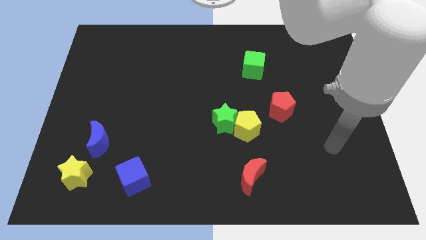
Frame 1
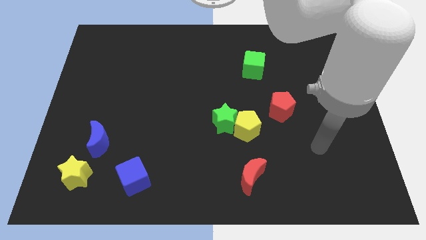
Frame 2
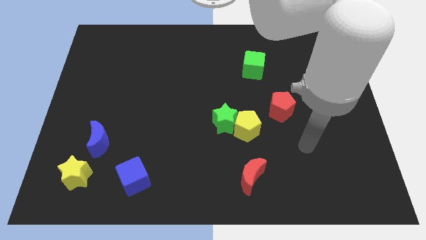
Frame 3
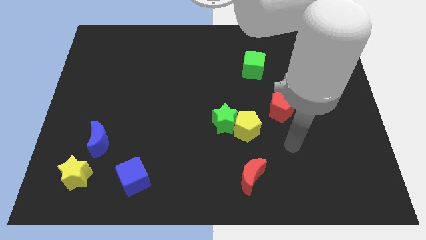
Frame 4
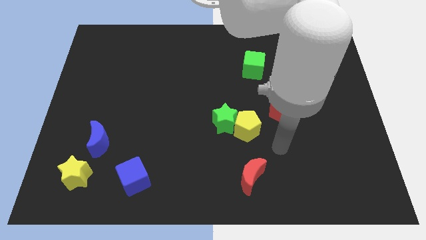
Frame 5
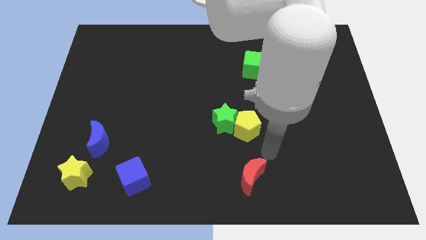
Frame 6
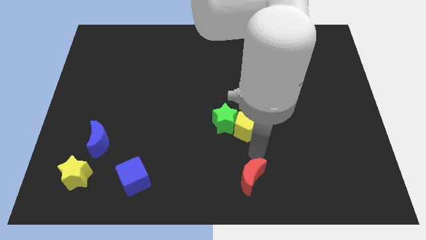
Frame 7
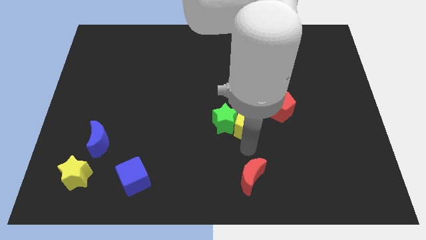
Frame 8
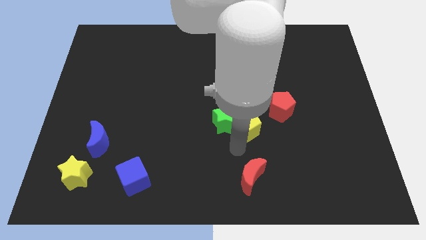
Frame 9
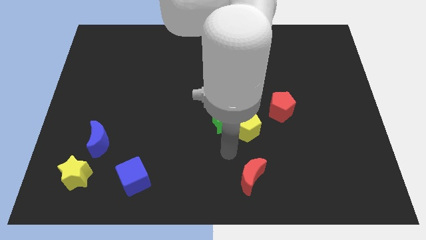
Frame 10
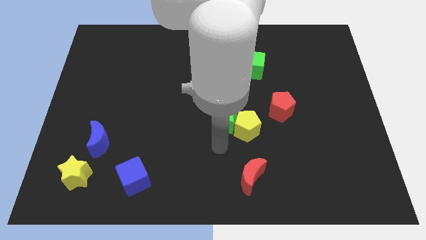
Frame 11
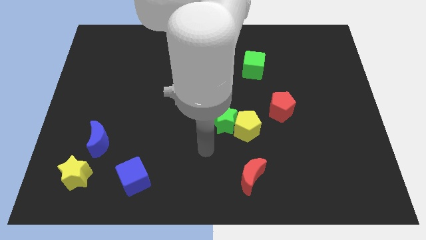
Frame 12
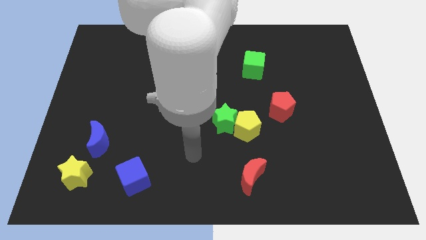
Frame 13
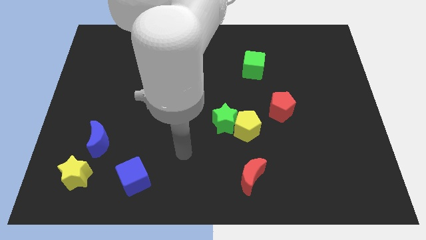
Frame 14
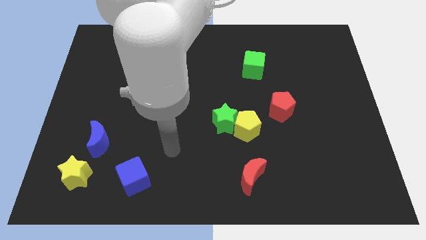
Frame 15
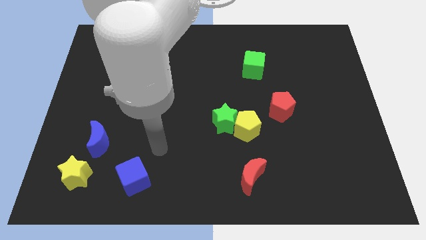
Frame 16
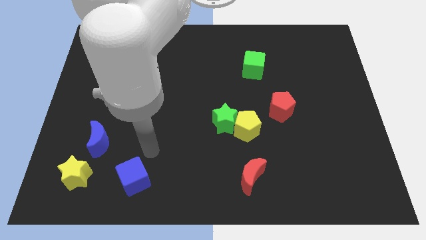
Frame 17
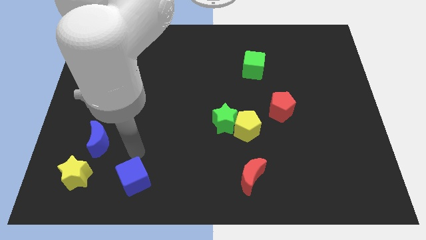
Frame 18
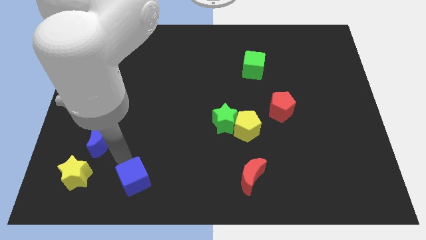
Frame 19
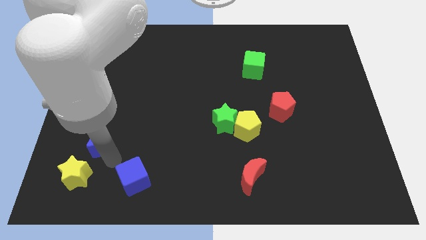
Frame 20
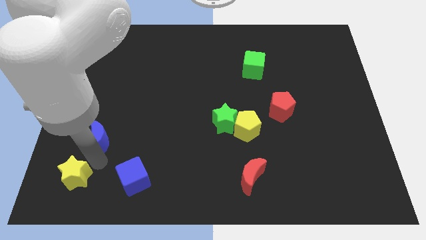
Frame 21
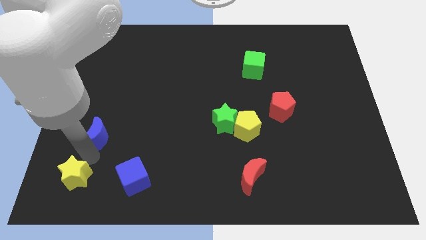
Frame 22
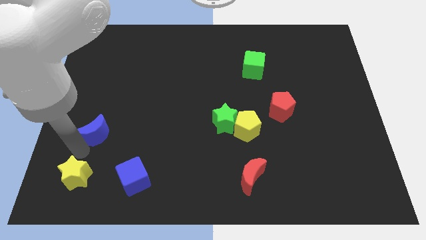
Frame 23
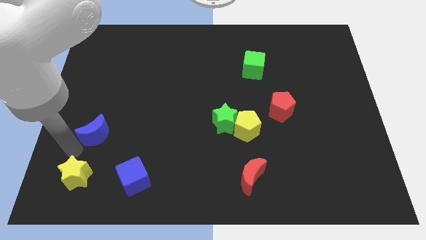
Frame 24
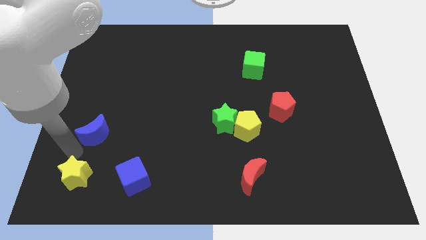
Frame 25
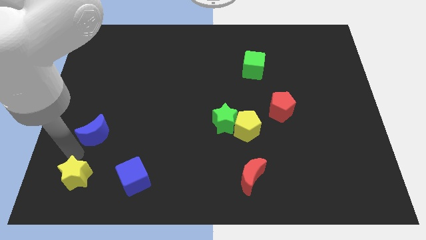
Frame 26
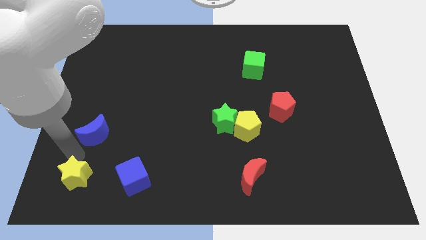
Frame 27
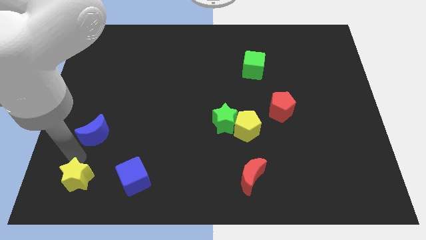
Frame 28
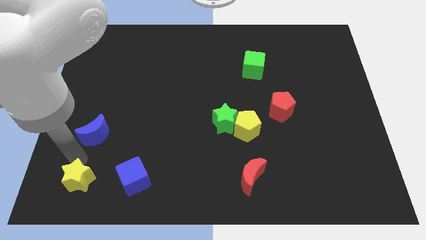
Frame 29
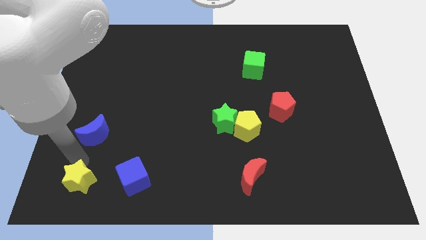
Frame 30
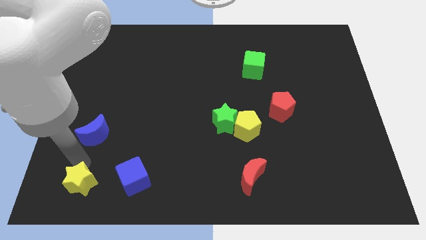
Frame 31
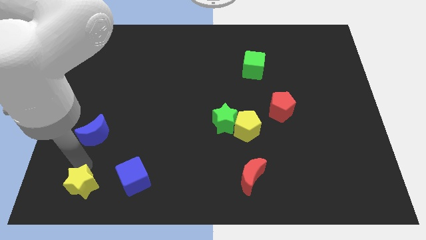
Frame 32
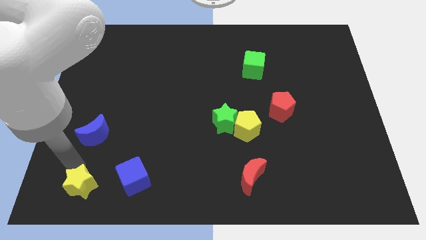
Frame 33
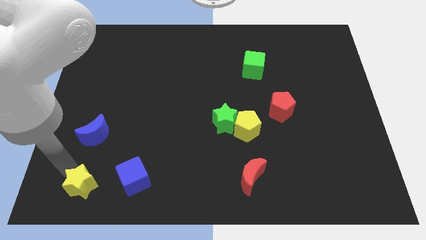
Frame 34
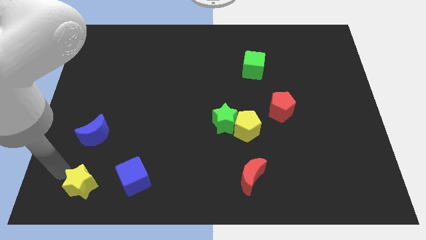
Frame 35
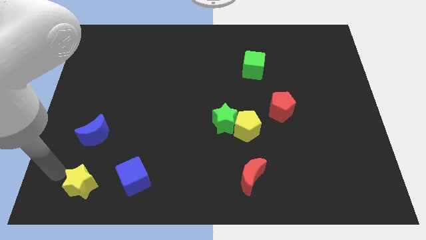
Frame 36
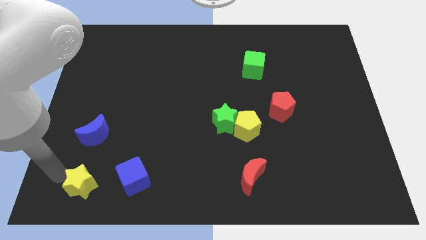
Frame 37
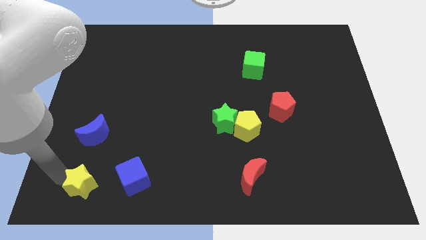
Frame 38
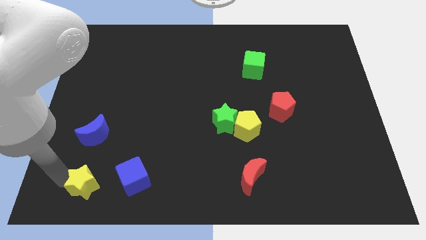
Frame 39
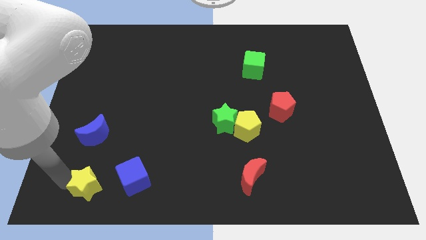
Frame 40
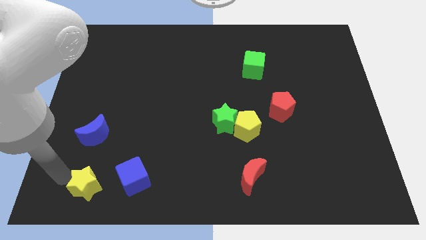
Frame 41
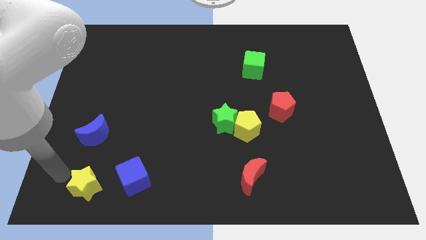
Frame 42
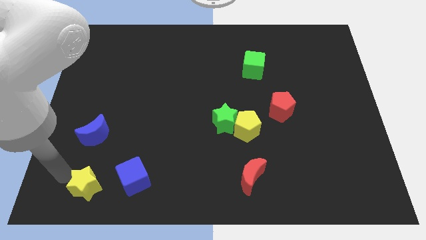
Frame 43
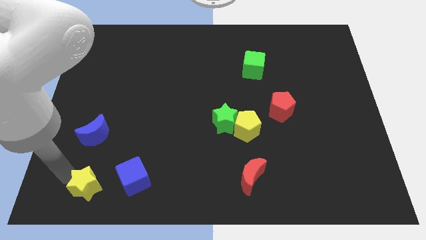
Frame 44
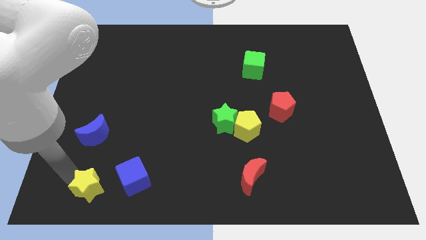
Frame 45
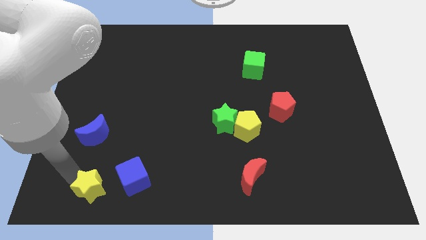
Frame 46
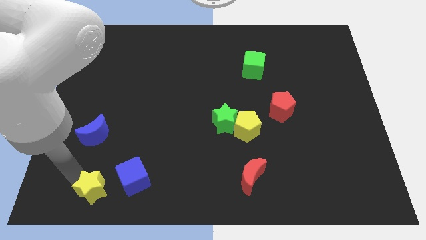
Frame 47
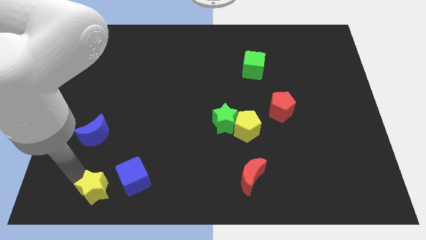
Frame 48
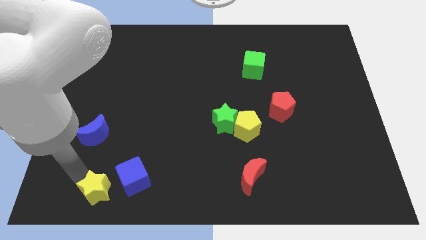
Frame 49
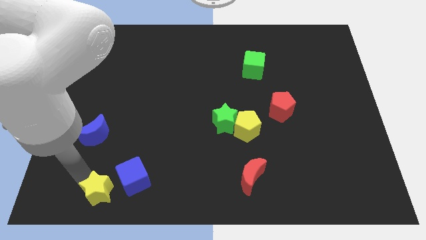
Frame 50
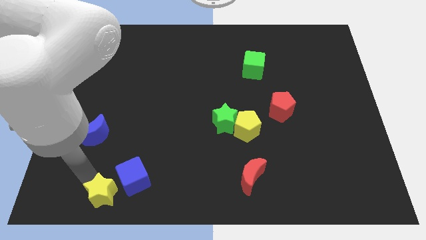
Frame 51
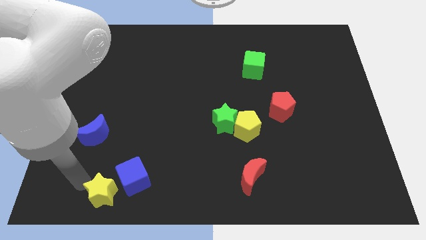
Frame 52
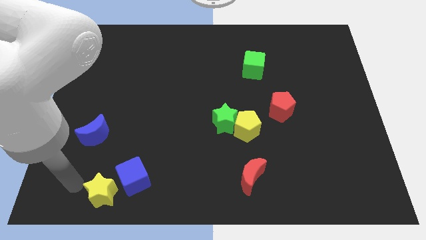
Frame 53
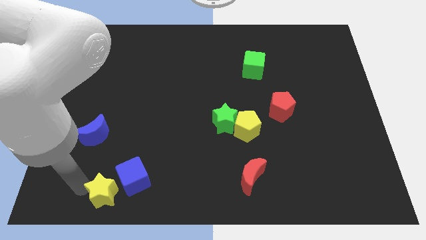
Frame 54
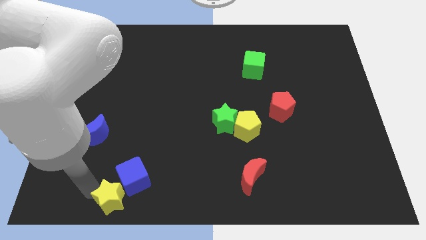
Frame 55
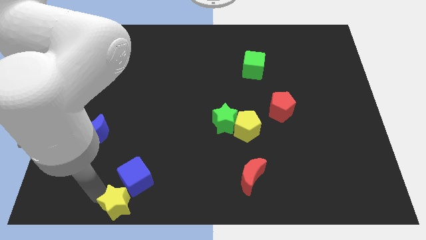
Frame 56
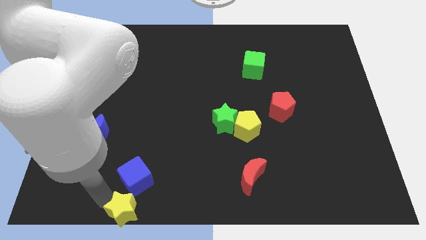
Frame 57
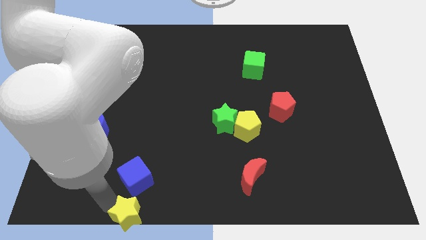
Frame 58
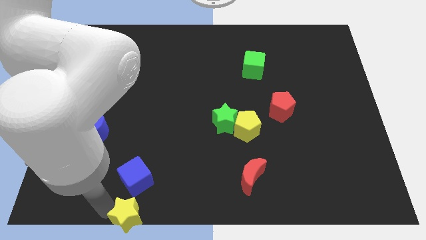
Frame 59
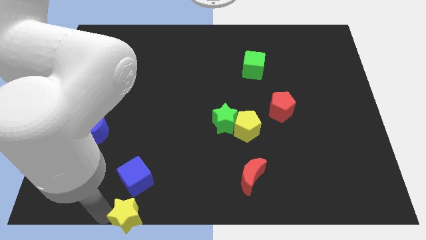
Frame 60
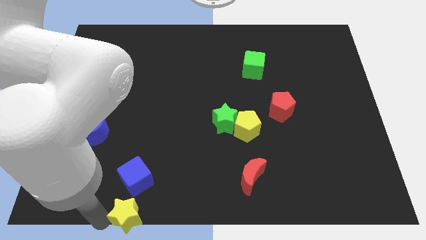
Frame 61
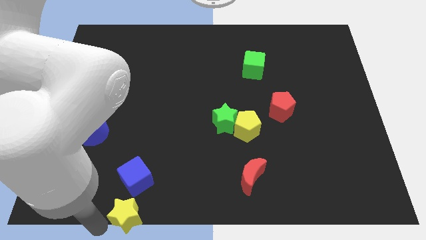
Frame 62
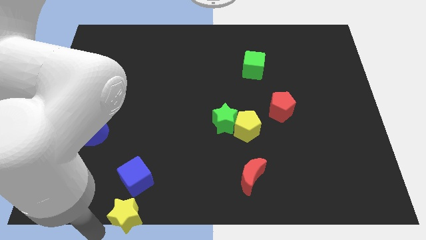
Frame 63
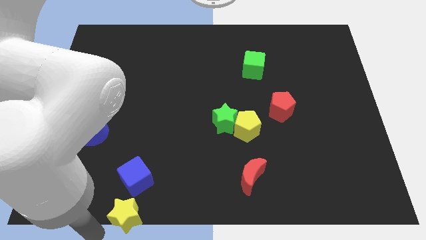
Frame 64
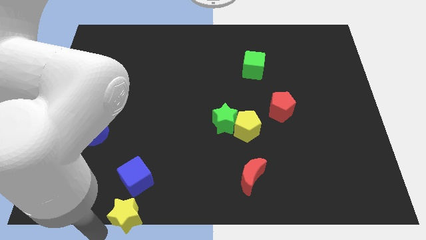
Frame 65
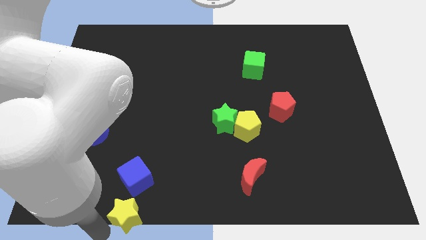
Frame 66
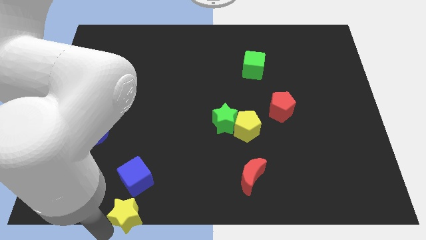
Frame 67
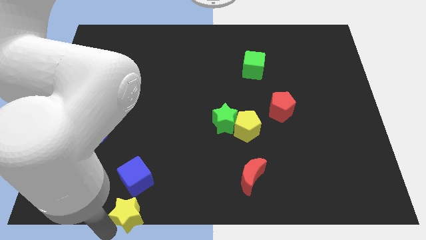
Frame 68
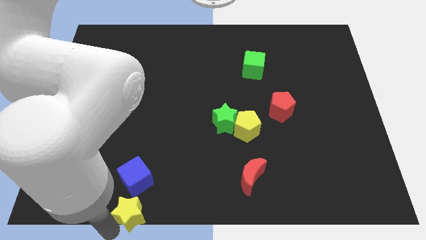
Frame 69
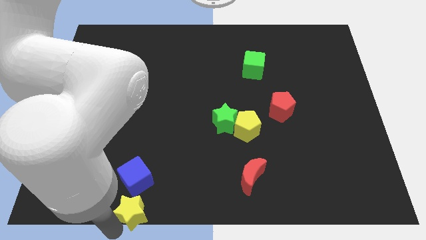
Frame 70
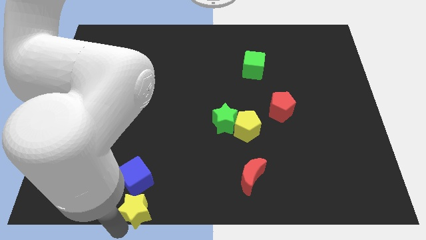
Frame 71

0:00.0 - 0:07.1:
move the yellow star to the bottom side
